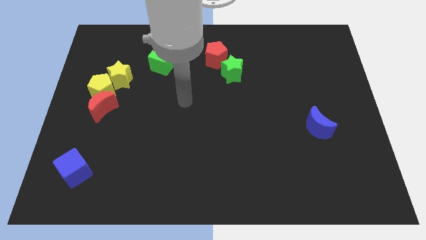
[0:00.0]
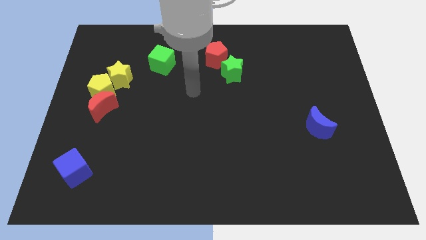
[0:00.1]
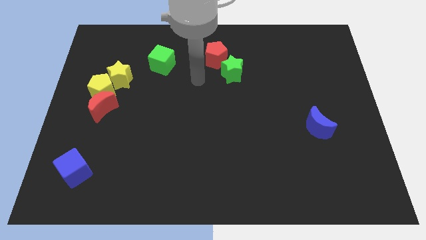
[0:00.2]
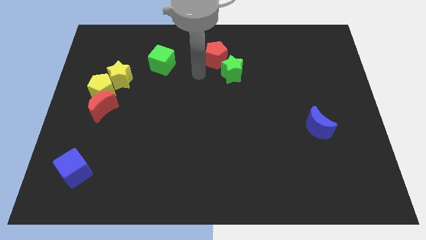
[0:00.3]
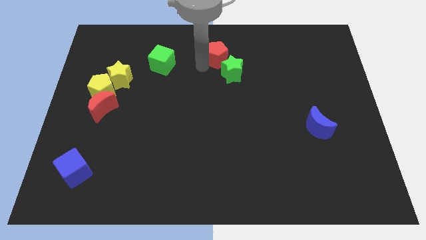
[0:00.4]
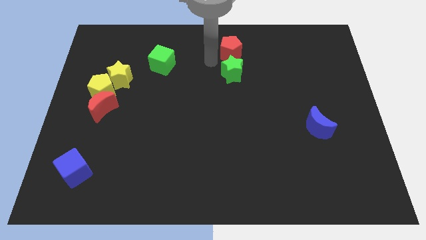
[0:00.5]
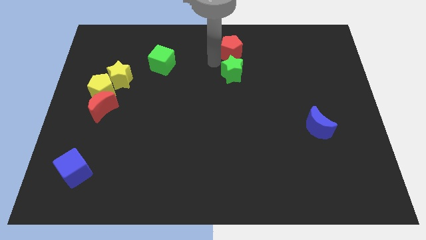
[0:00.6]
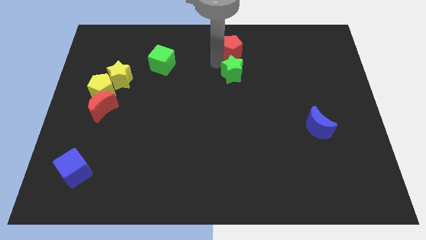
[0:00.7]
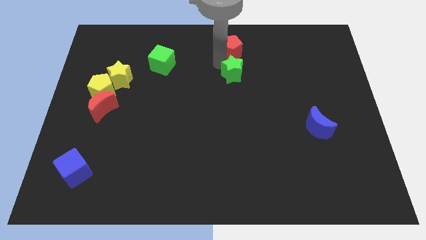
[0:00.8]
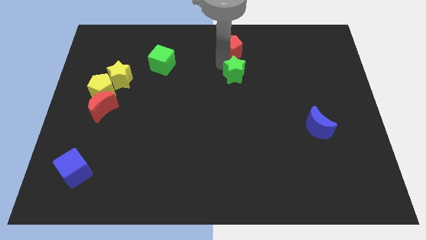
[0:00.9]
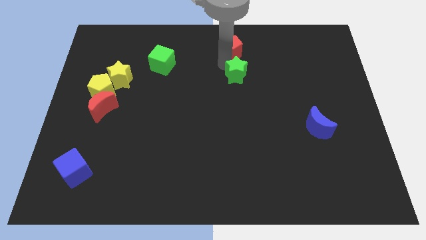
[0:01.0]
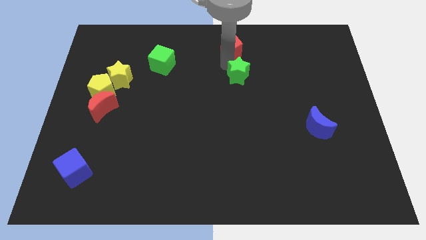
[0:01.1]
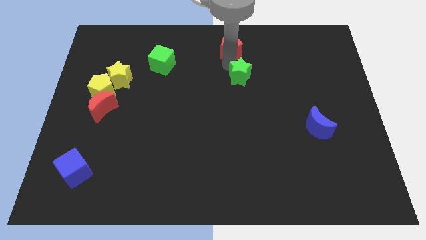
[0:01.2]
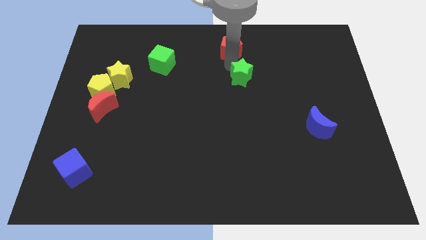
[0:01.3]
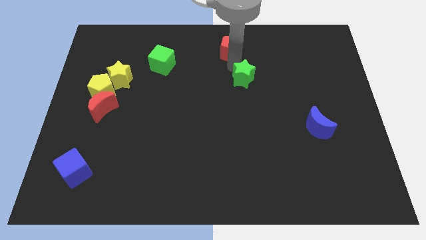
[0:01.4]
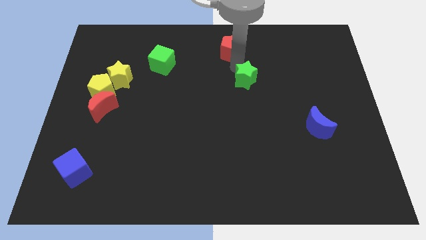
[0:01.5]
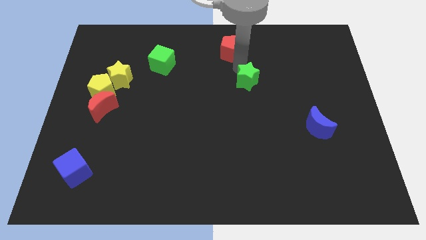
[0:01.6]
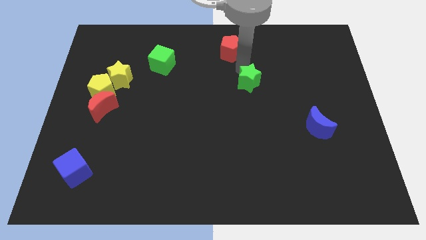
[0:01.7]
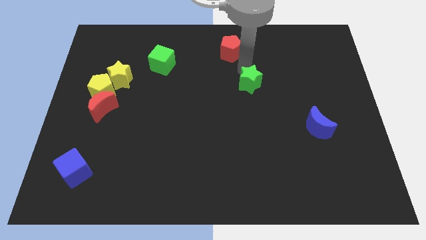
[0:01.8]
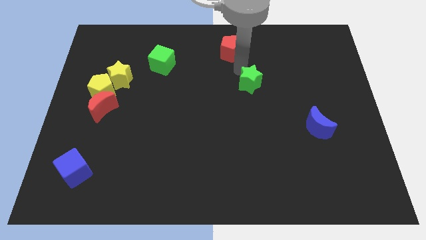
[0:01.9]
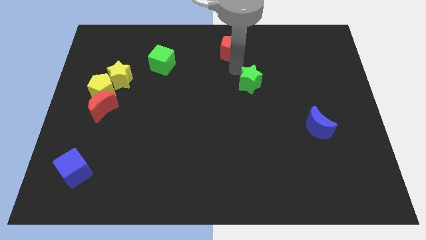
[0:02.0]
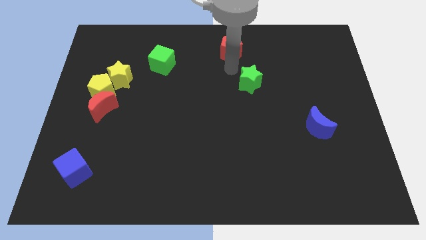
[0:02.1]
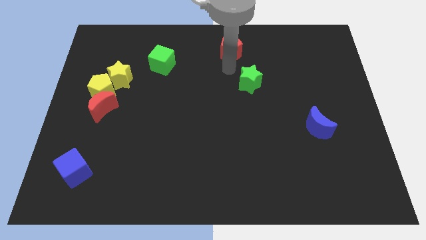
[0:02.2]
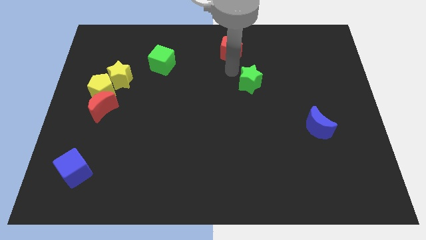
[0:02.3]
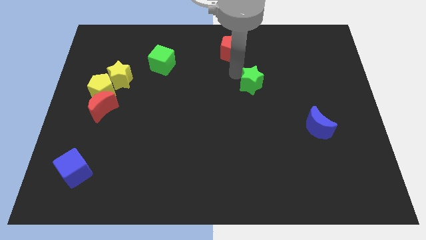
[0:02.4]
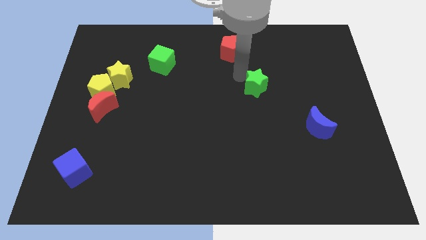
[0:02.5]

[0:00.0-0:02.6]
slide the green star a little down and right

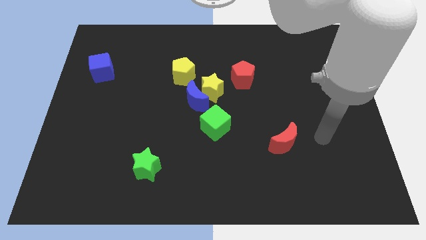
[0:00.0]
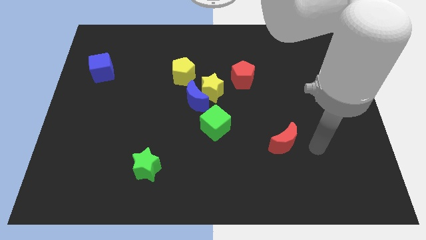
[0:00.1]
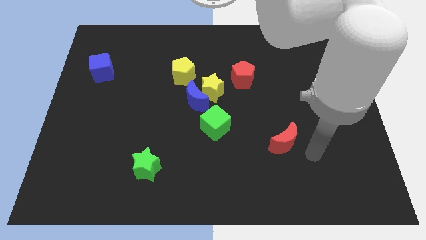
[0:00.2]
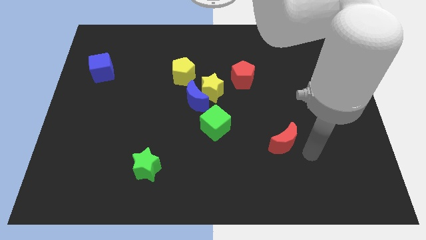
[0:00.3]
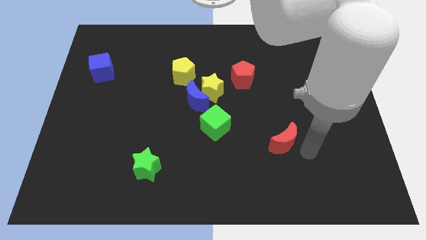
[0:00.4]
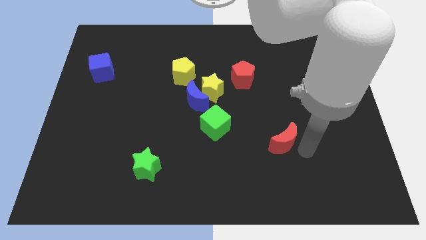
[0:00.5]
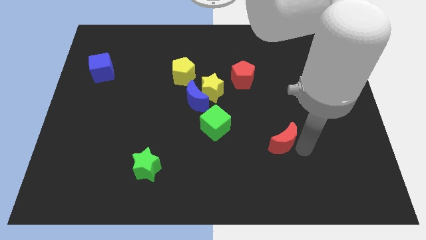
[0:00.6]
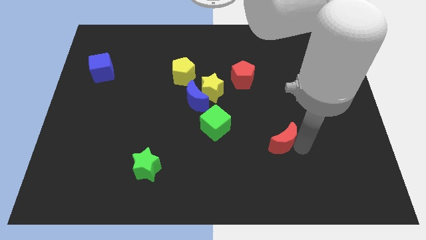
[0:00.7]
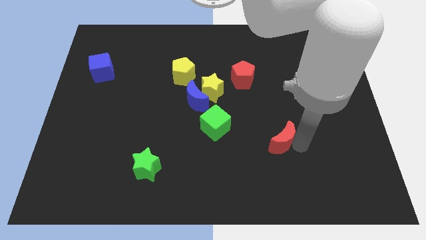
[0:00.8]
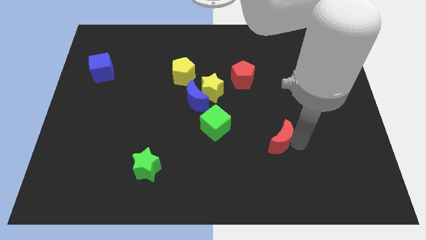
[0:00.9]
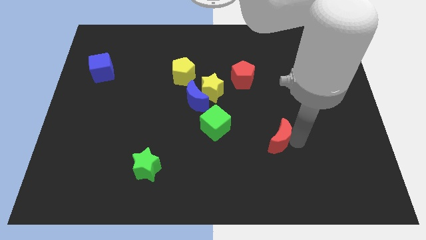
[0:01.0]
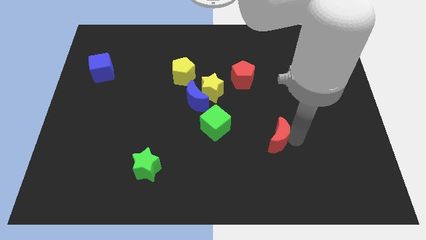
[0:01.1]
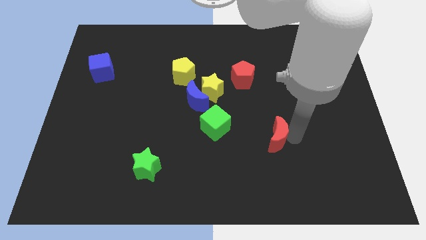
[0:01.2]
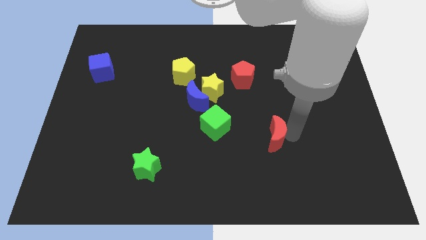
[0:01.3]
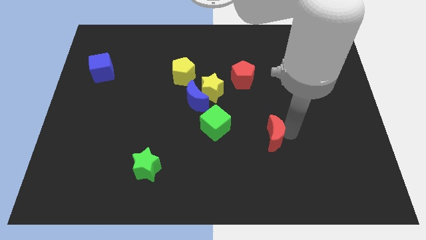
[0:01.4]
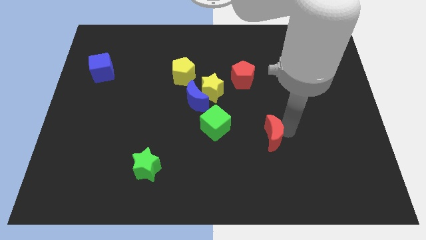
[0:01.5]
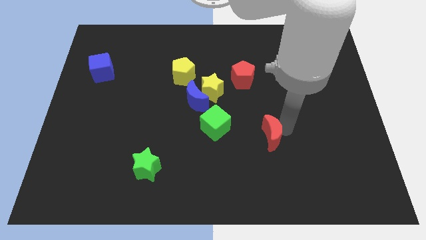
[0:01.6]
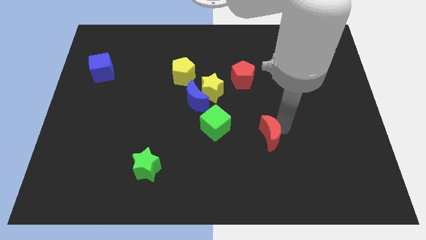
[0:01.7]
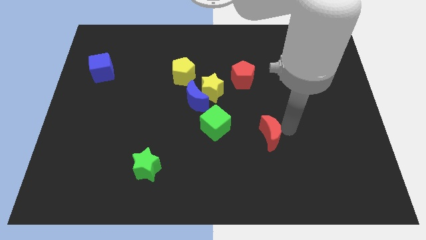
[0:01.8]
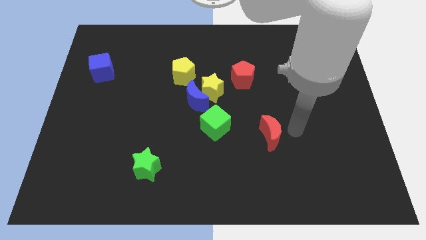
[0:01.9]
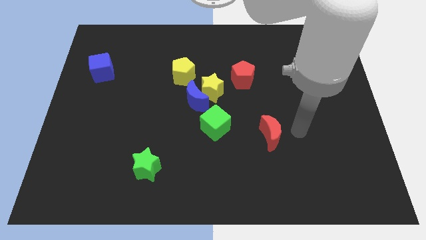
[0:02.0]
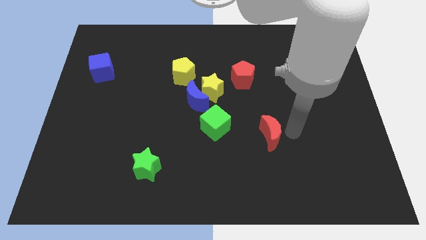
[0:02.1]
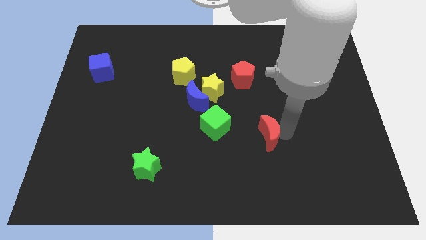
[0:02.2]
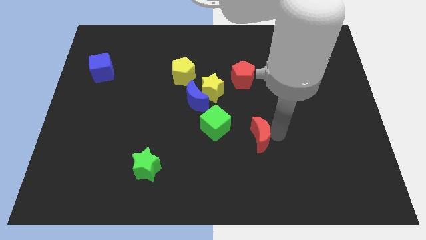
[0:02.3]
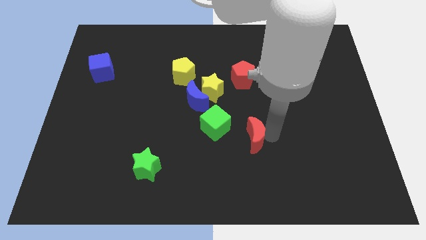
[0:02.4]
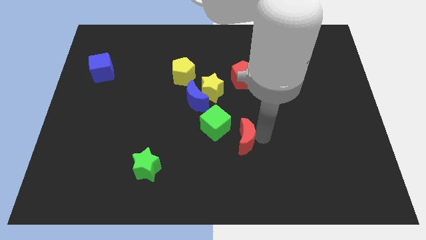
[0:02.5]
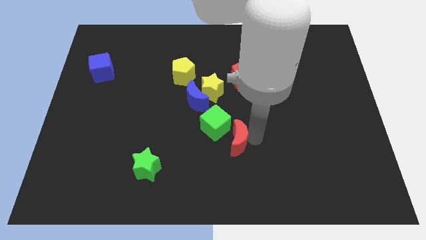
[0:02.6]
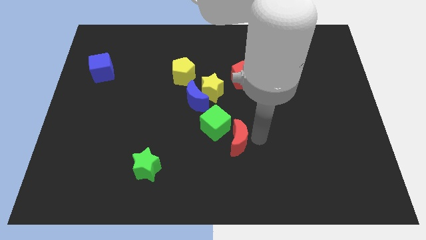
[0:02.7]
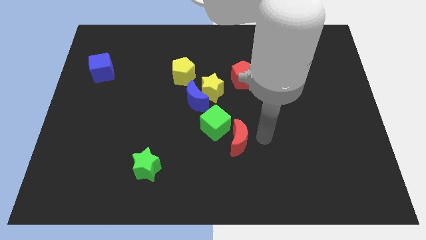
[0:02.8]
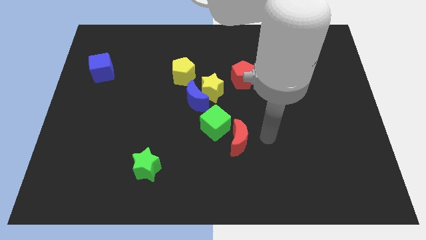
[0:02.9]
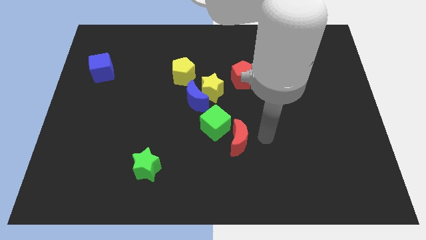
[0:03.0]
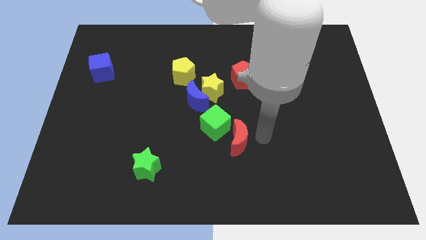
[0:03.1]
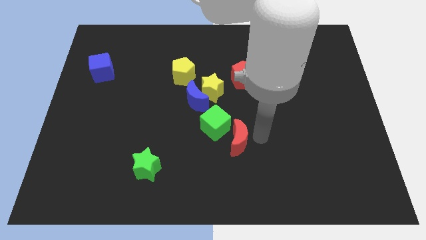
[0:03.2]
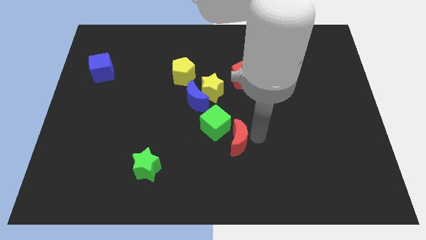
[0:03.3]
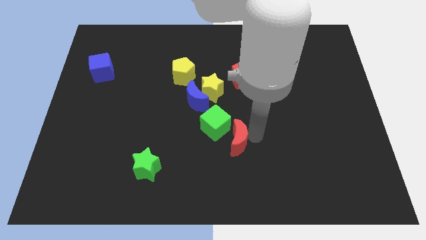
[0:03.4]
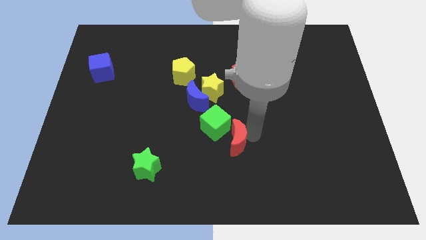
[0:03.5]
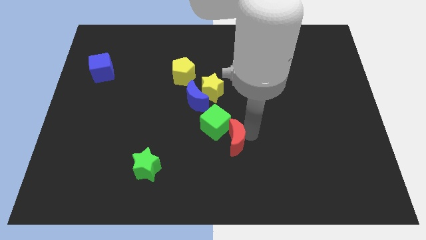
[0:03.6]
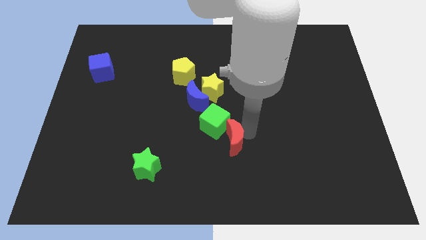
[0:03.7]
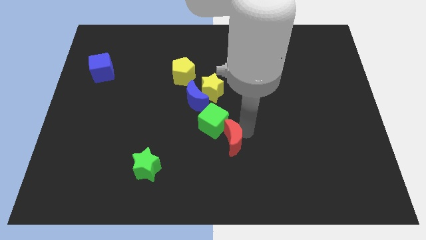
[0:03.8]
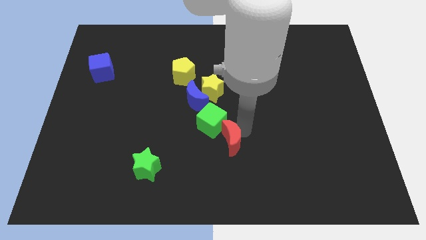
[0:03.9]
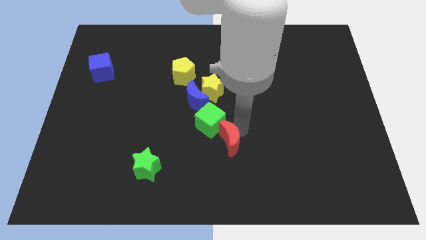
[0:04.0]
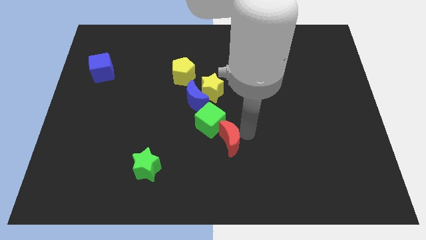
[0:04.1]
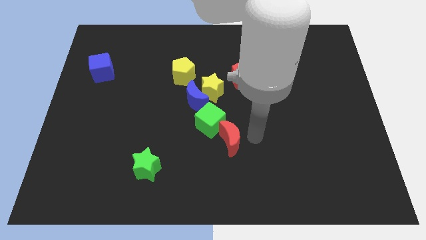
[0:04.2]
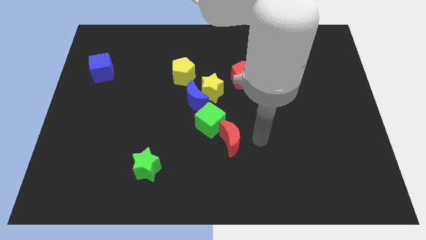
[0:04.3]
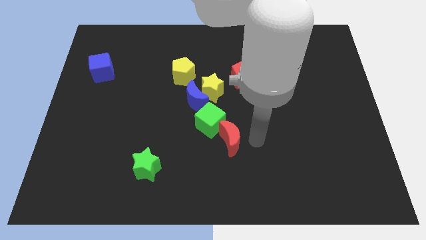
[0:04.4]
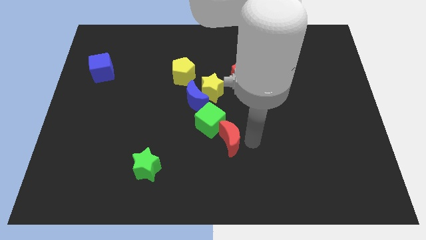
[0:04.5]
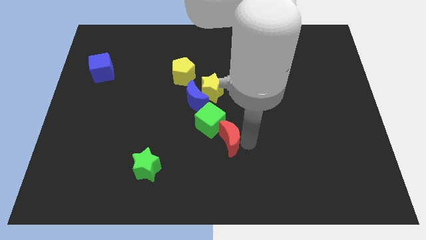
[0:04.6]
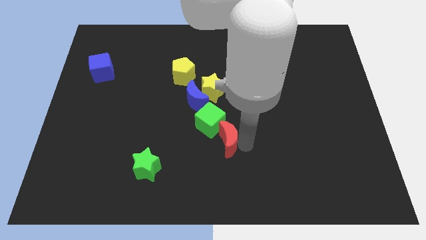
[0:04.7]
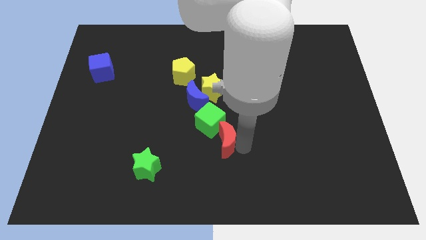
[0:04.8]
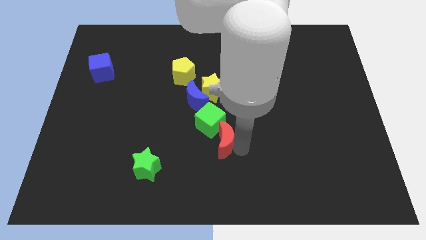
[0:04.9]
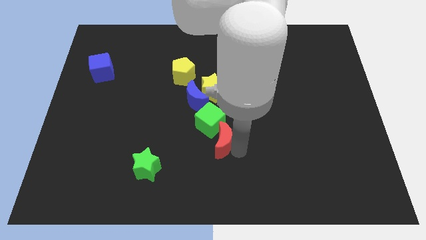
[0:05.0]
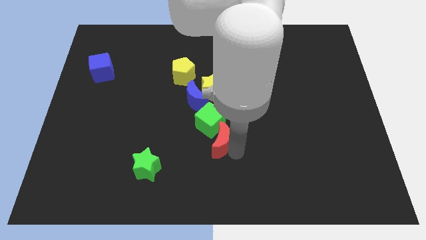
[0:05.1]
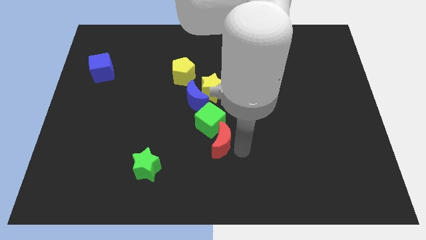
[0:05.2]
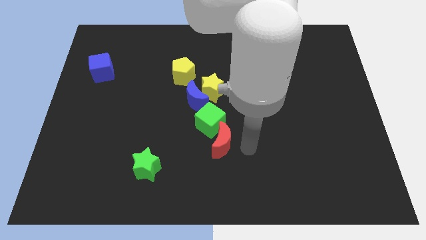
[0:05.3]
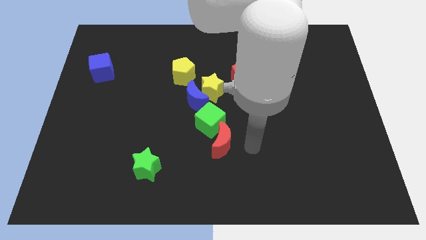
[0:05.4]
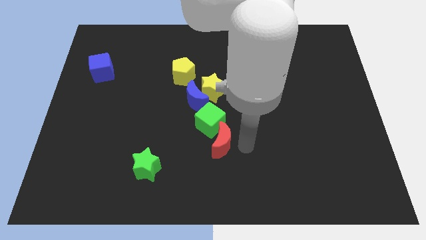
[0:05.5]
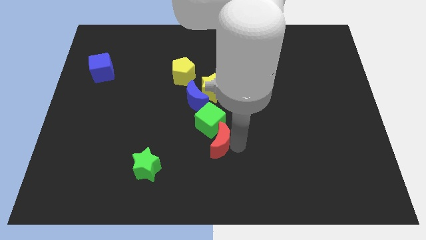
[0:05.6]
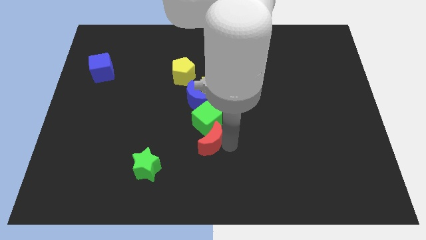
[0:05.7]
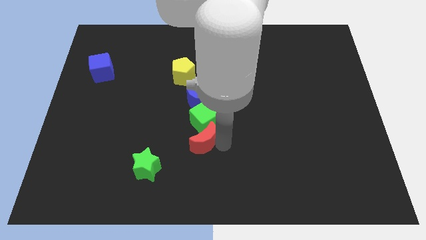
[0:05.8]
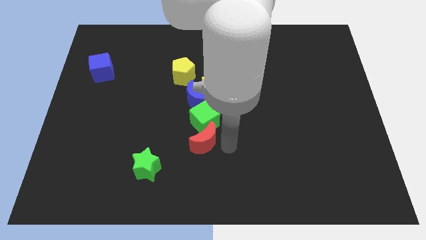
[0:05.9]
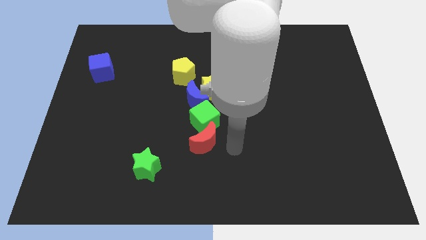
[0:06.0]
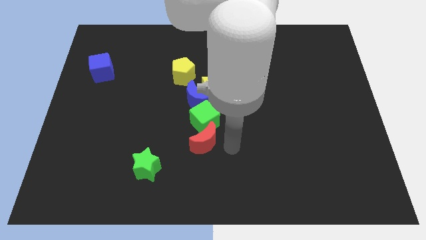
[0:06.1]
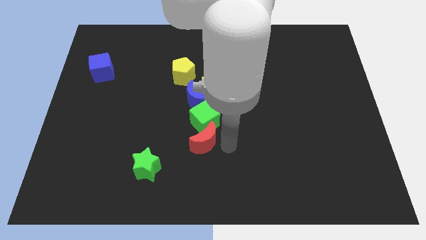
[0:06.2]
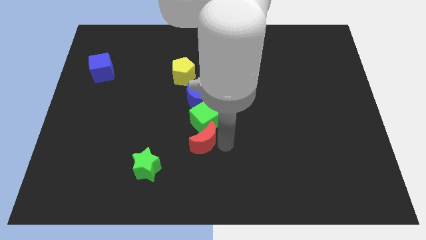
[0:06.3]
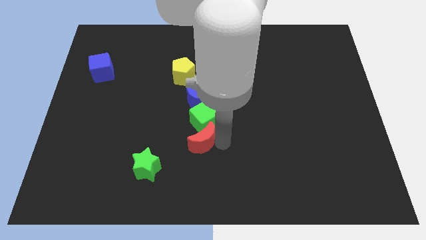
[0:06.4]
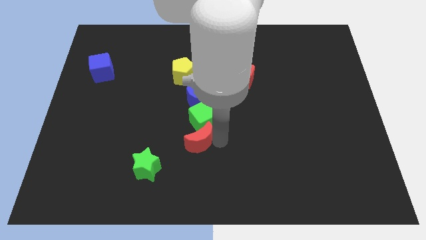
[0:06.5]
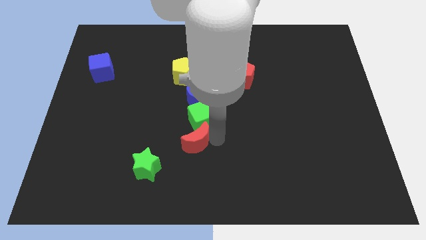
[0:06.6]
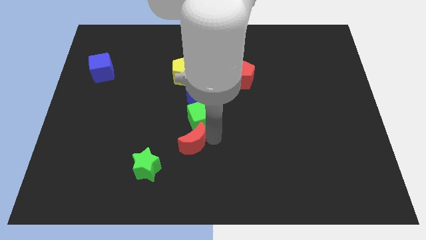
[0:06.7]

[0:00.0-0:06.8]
push the red moon left
